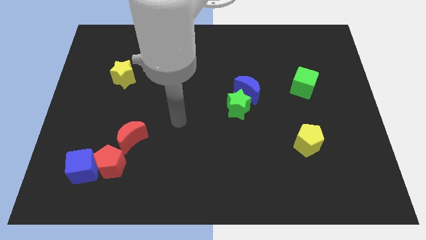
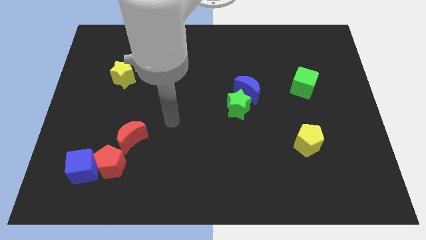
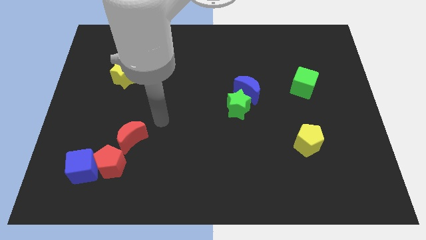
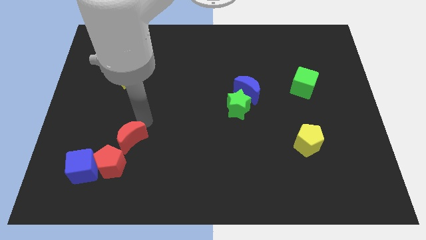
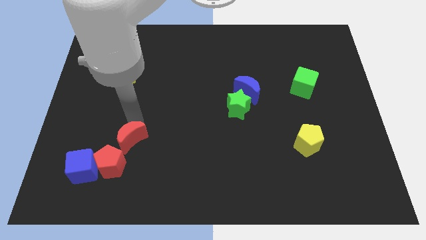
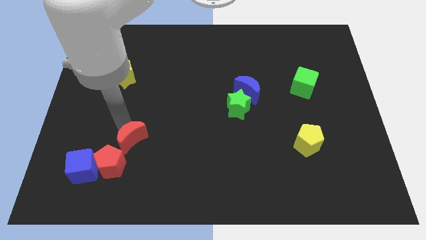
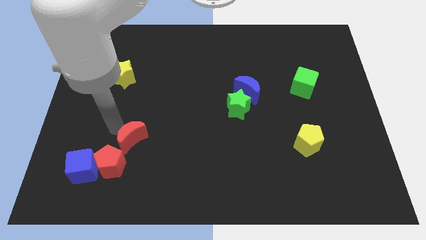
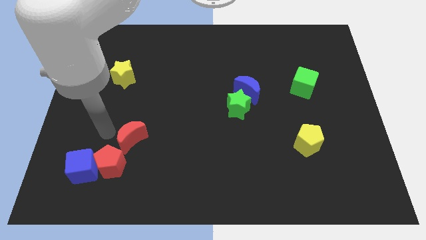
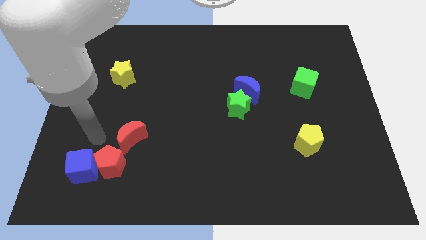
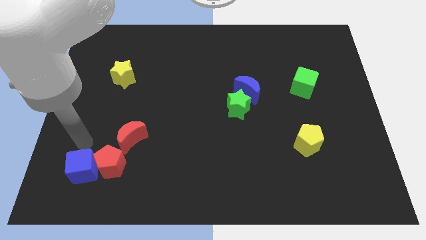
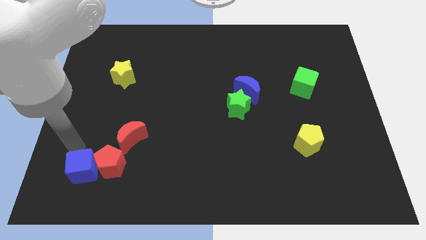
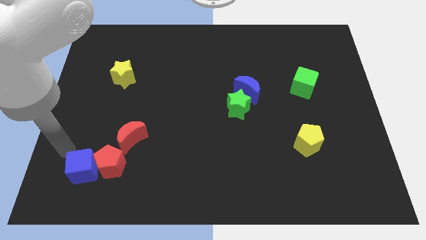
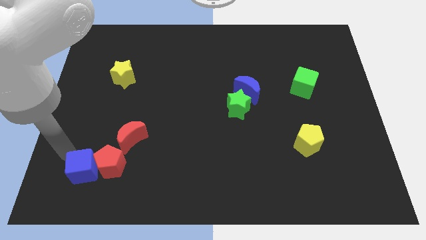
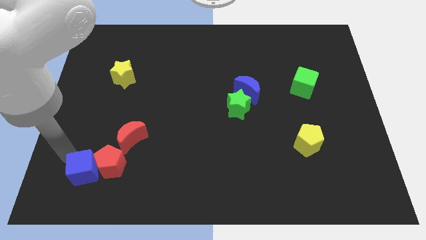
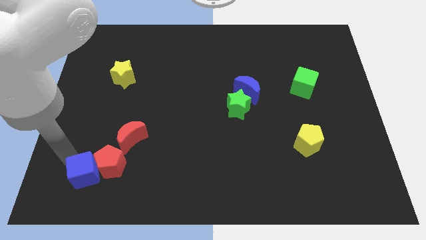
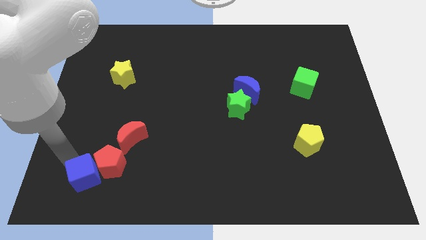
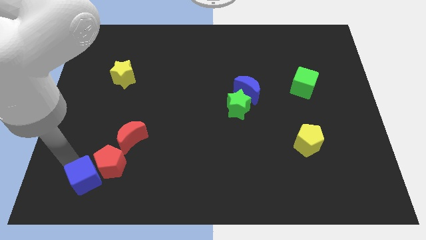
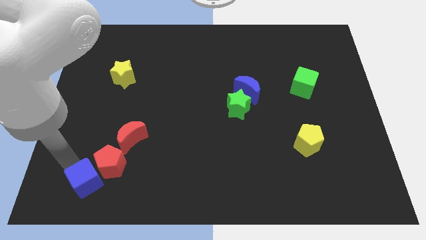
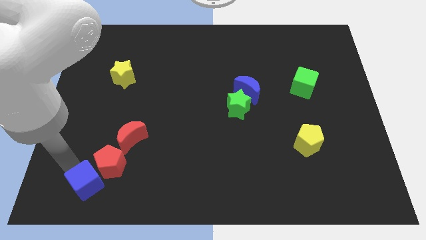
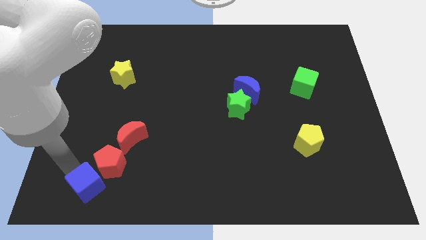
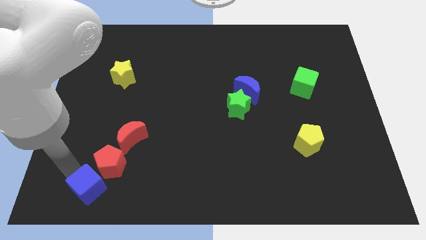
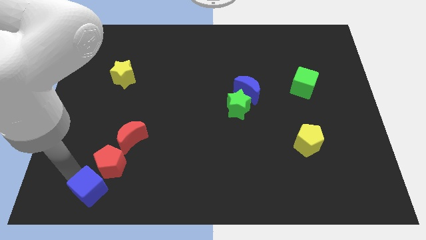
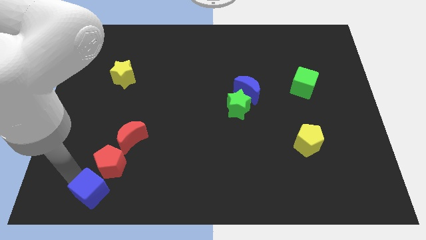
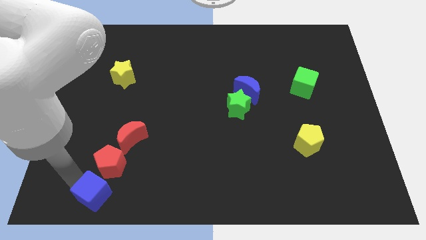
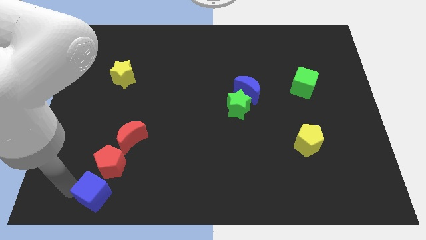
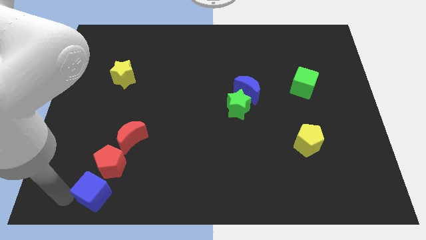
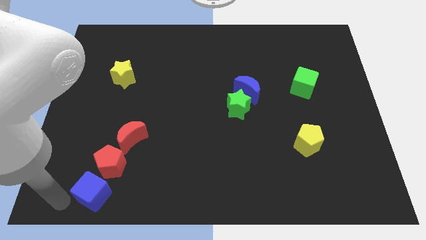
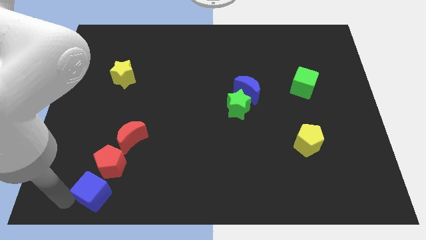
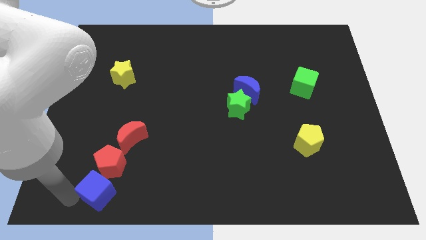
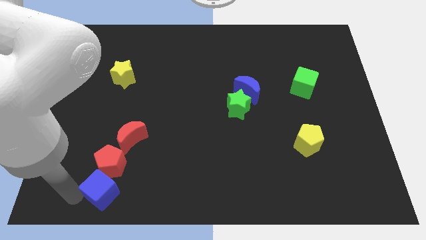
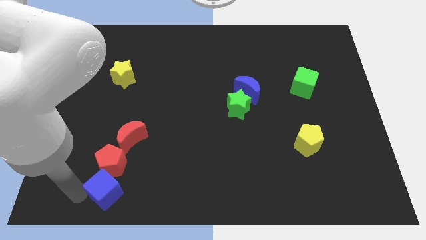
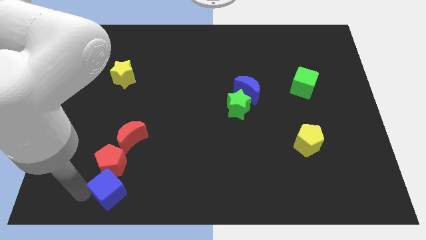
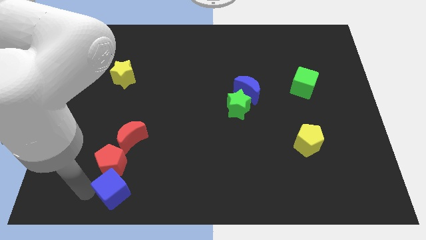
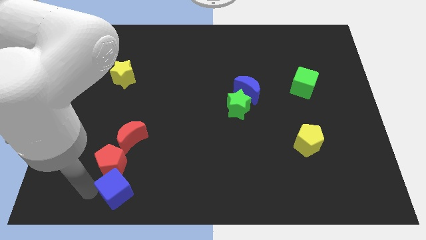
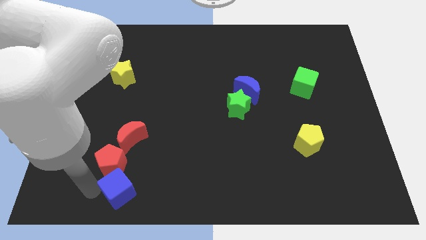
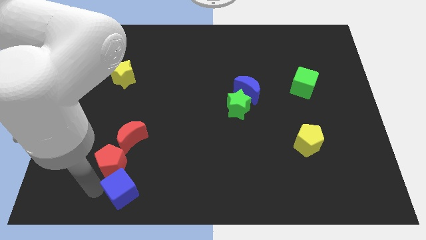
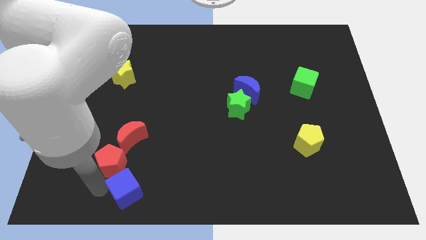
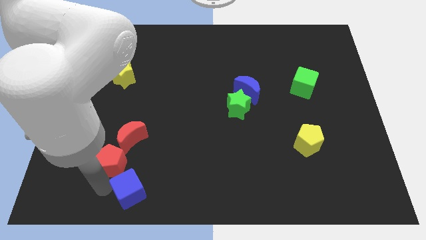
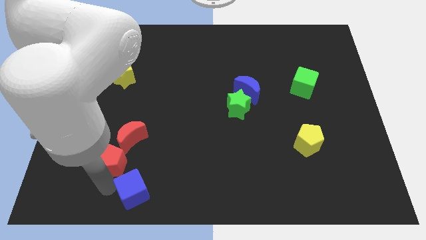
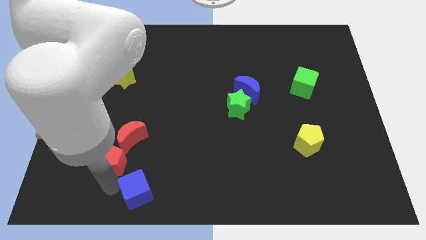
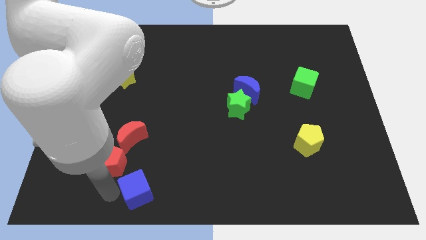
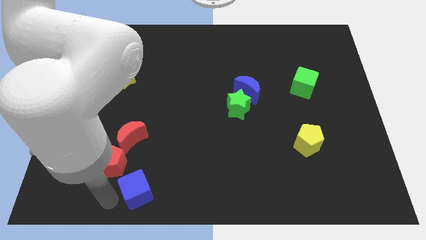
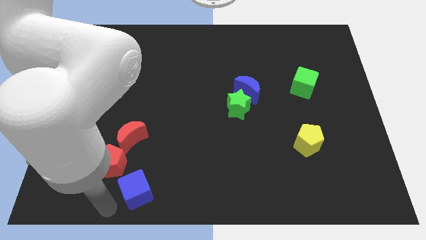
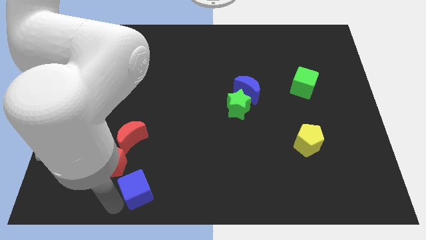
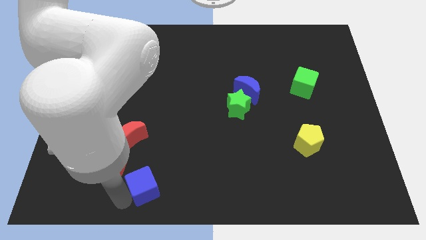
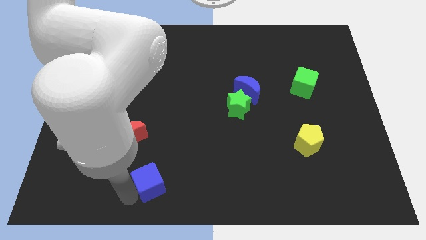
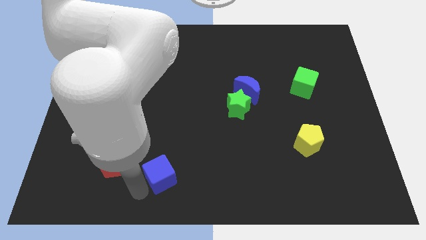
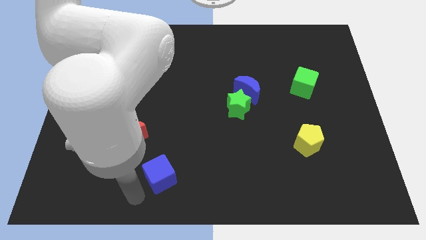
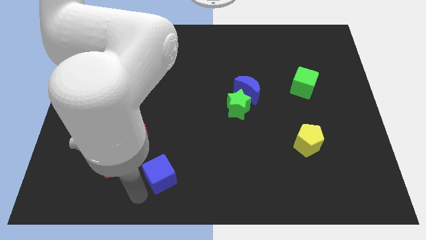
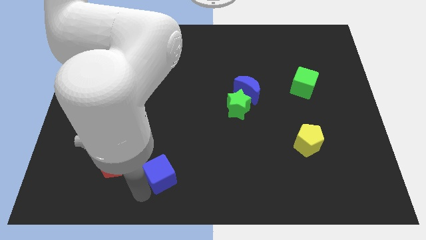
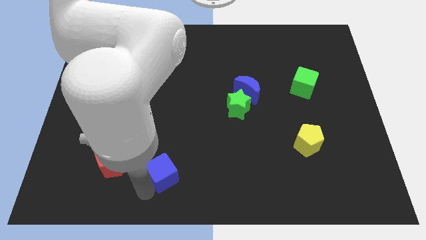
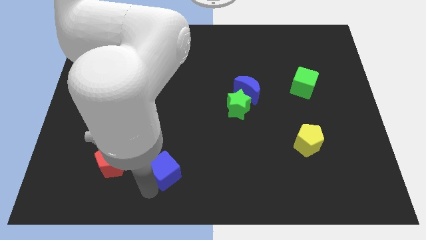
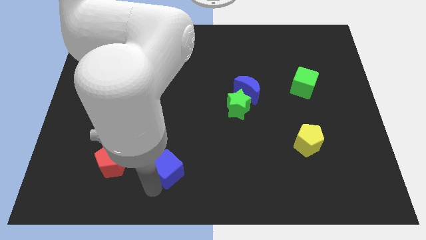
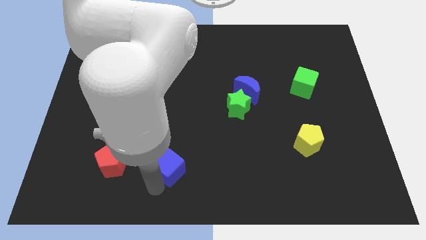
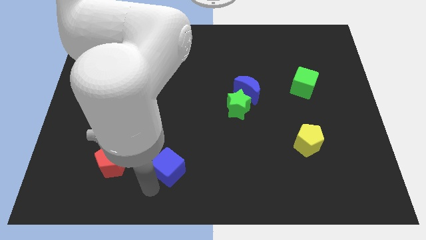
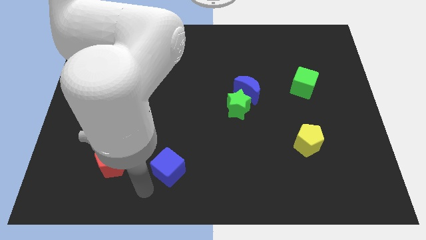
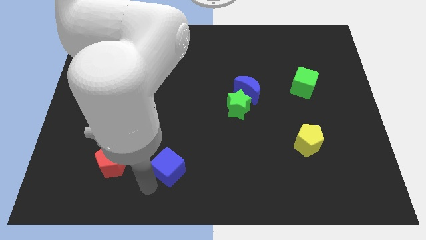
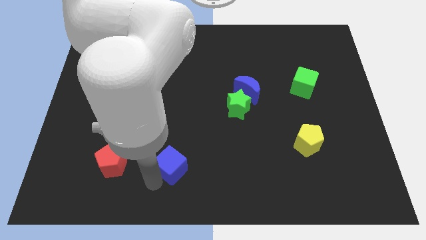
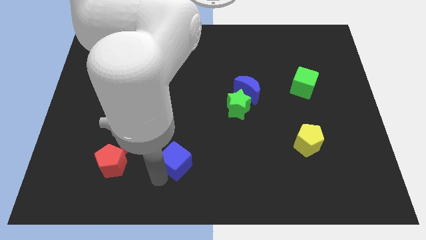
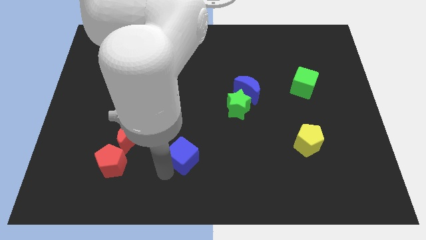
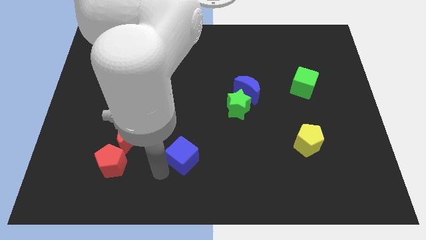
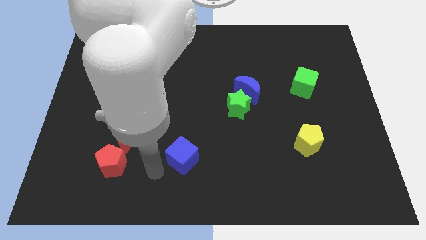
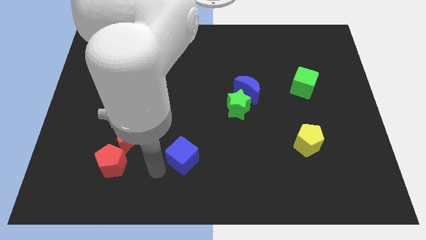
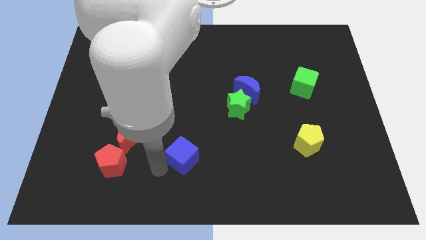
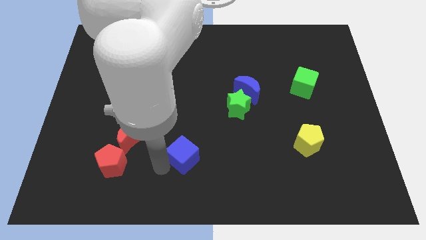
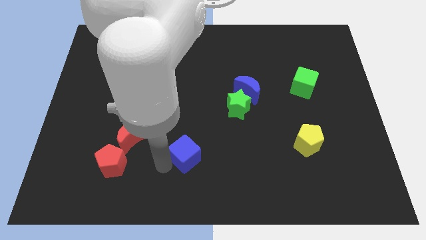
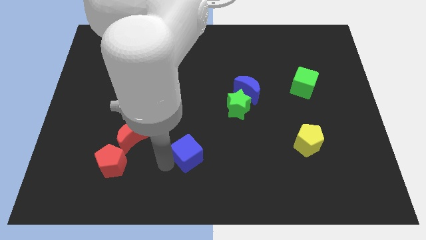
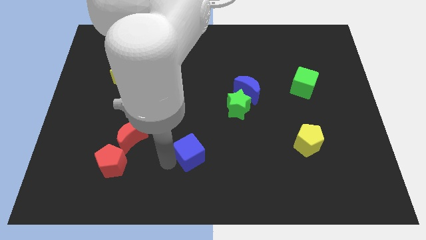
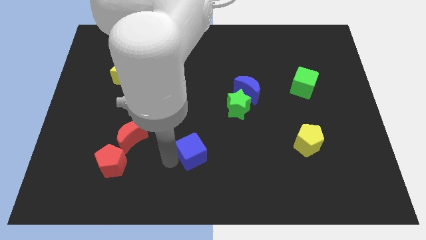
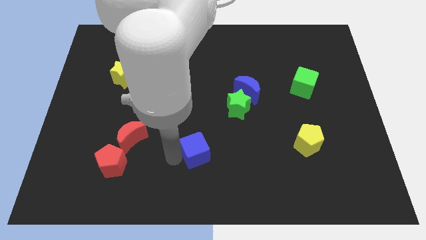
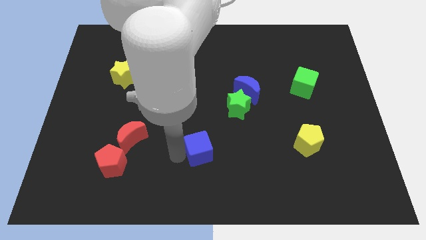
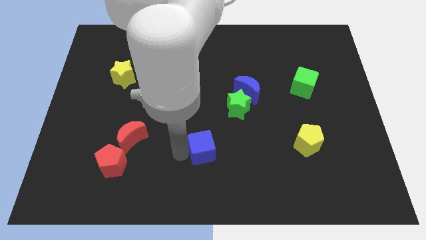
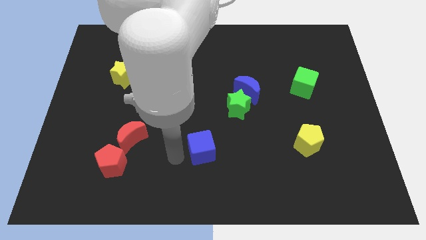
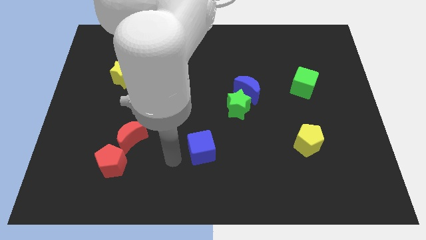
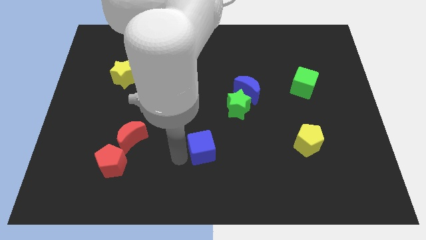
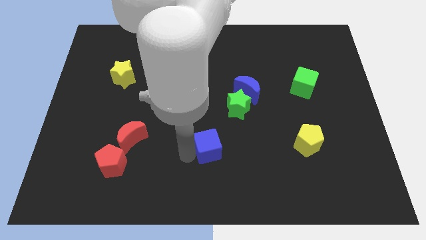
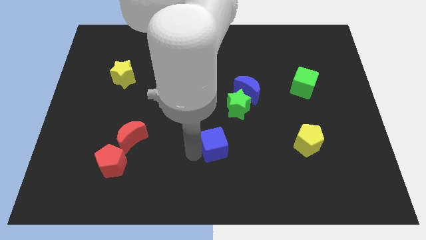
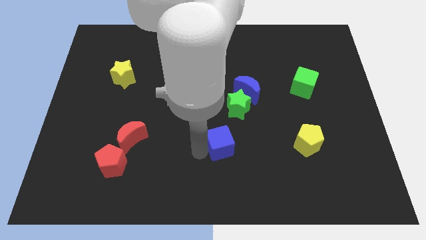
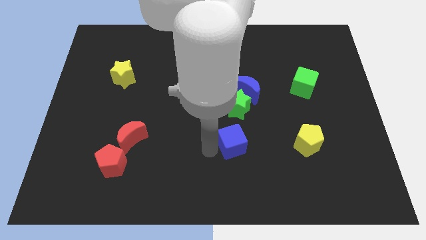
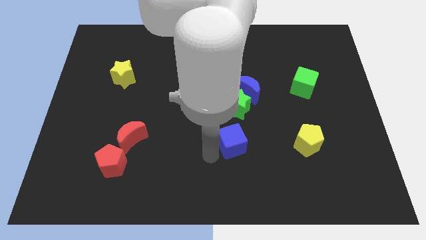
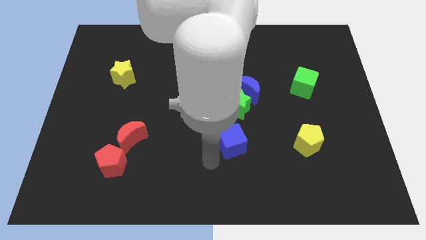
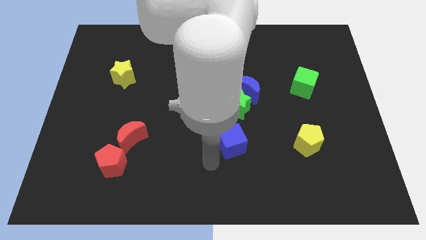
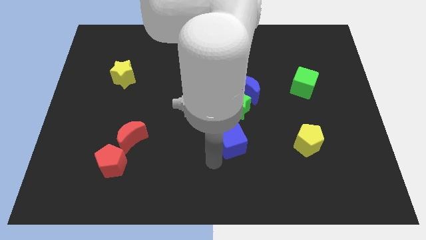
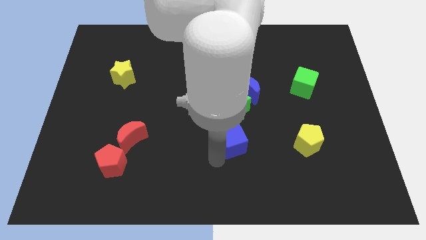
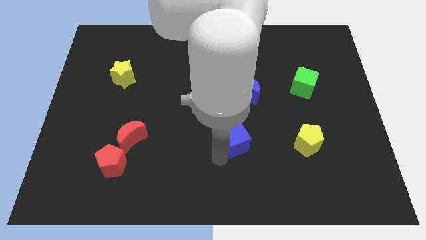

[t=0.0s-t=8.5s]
move the blue cube to the bottom side of the blue moon
